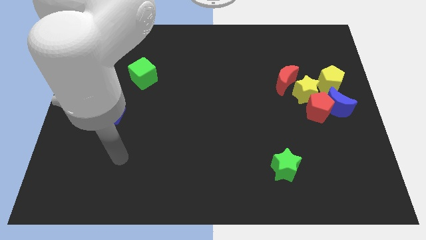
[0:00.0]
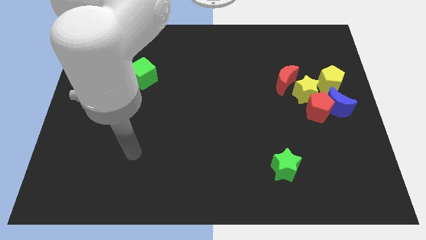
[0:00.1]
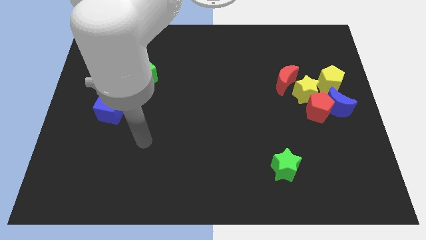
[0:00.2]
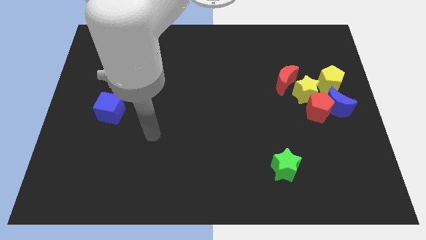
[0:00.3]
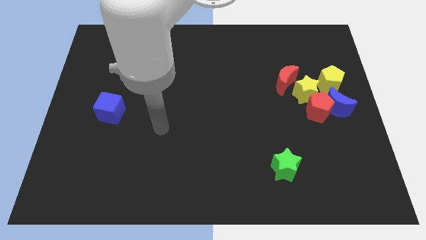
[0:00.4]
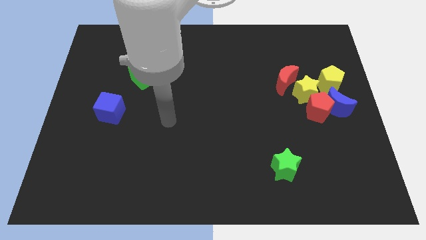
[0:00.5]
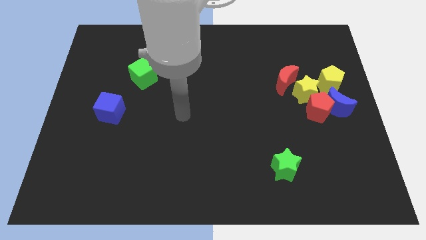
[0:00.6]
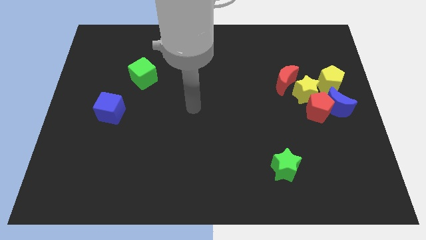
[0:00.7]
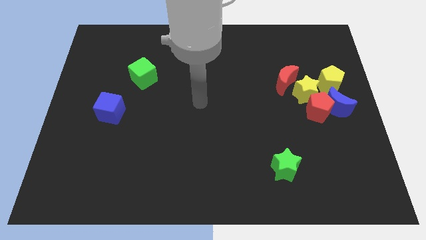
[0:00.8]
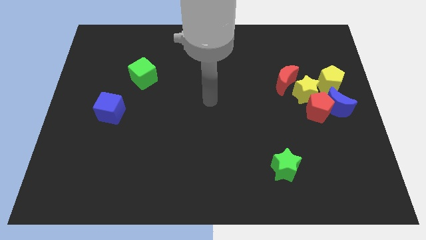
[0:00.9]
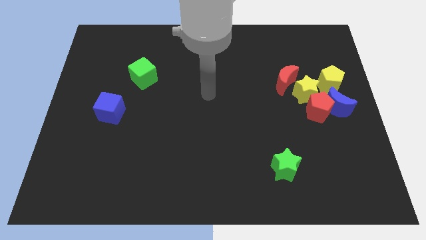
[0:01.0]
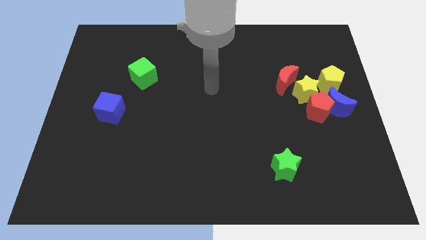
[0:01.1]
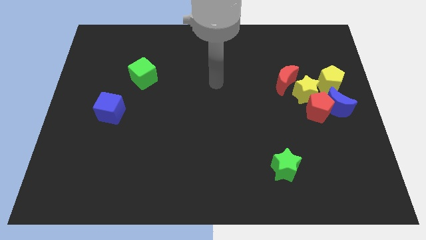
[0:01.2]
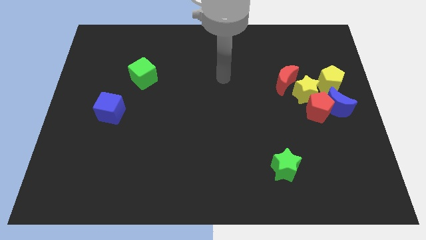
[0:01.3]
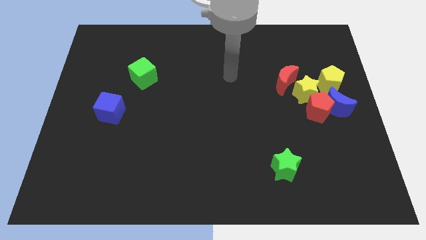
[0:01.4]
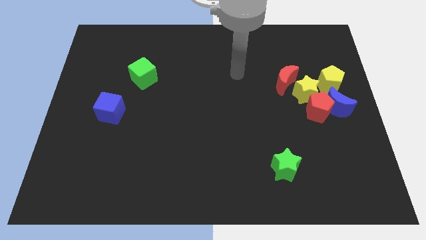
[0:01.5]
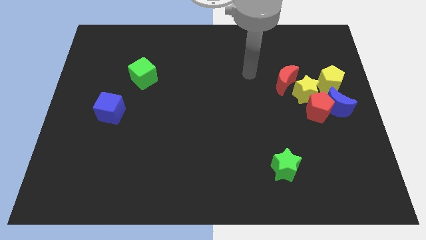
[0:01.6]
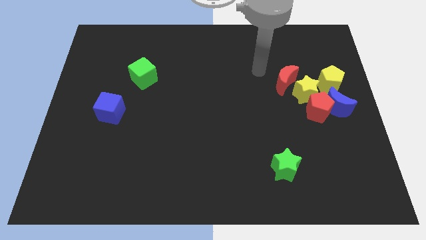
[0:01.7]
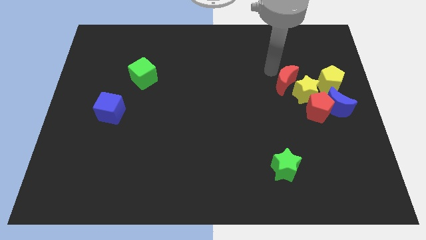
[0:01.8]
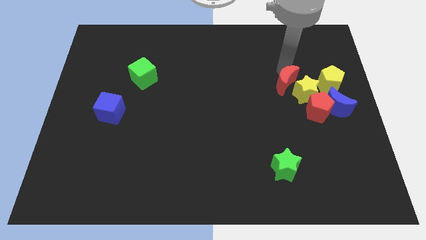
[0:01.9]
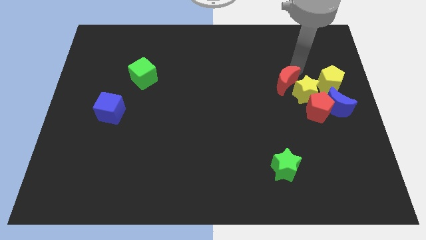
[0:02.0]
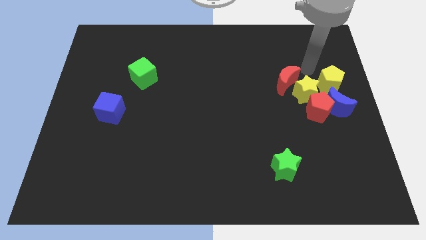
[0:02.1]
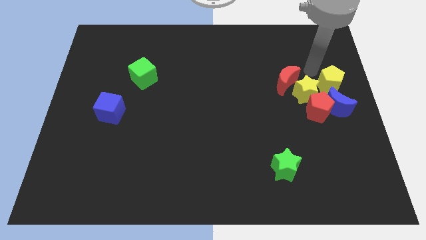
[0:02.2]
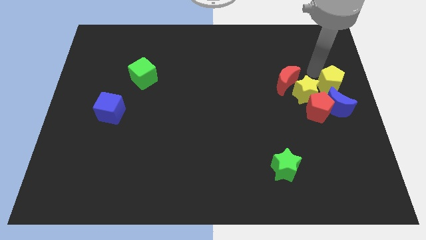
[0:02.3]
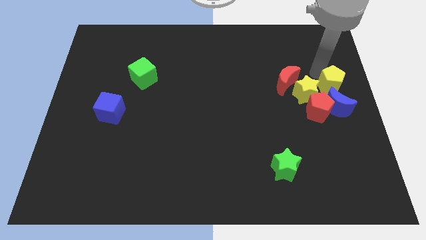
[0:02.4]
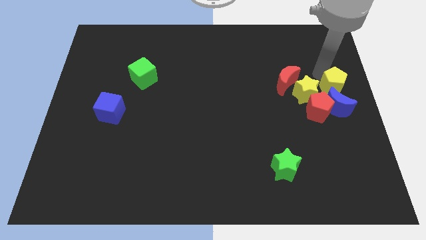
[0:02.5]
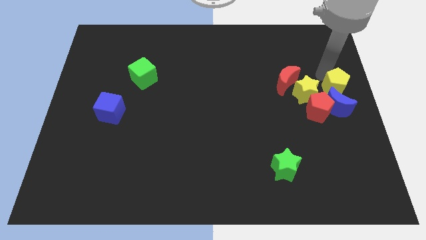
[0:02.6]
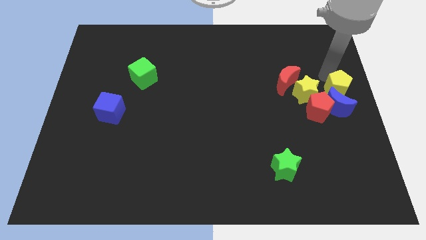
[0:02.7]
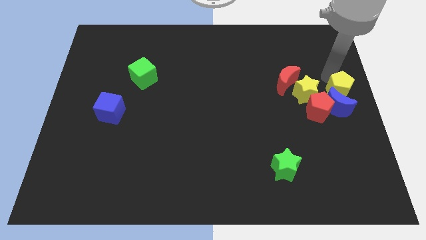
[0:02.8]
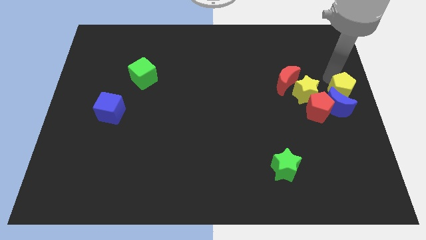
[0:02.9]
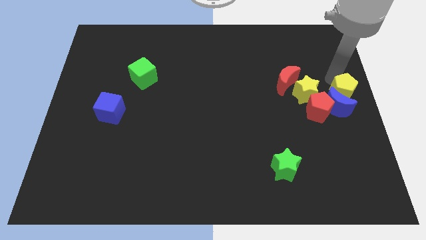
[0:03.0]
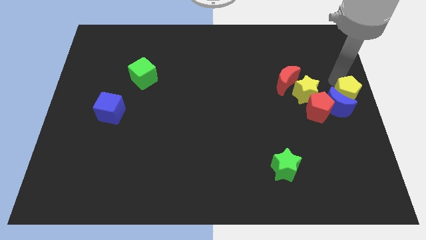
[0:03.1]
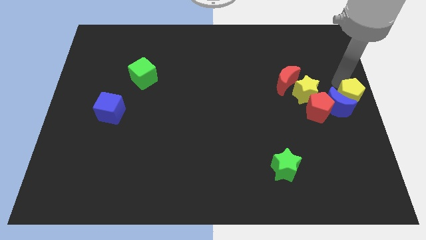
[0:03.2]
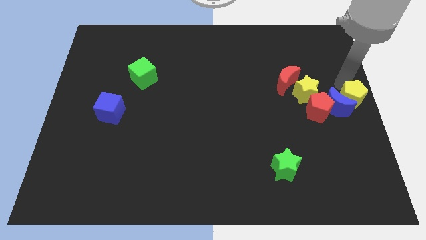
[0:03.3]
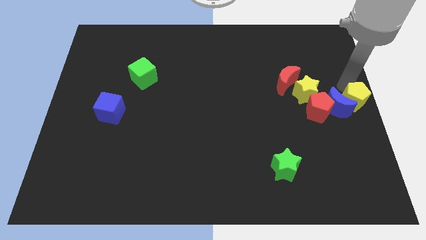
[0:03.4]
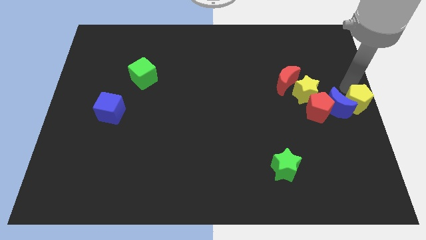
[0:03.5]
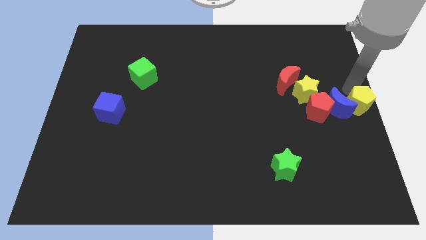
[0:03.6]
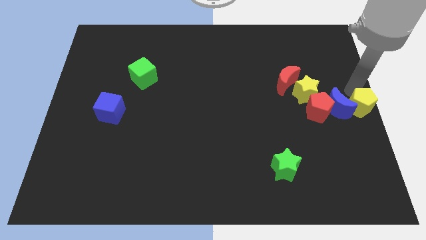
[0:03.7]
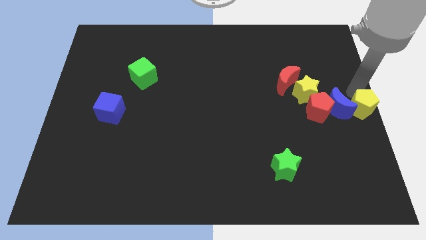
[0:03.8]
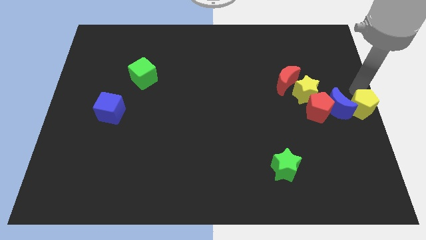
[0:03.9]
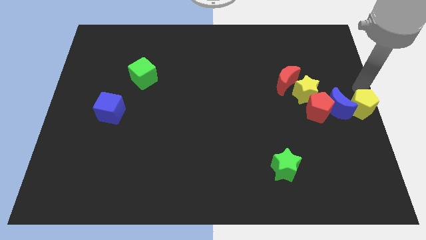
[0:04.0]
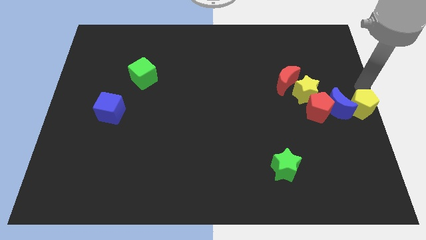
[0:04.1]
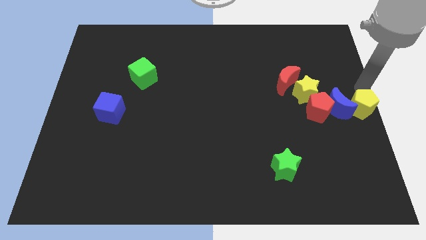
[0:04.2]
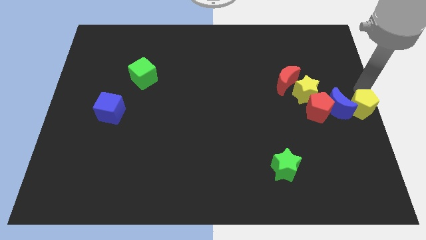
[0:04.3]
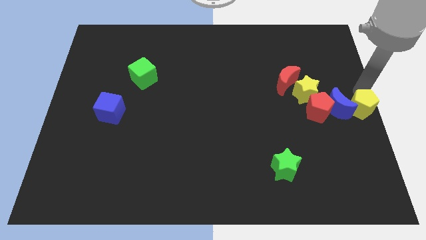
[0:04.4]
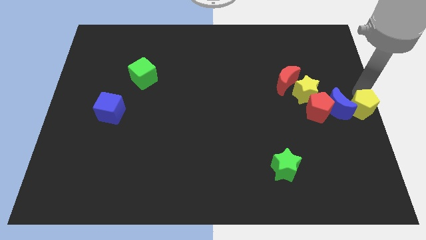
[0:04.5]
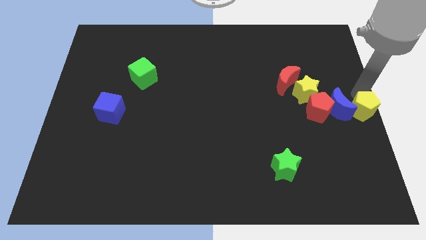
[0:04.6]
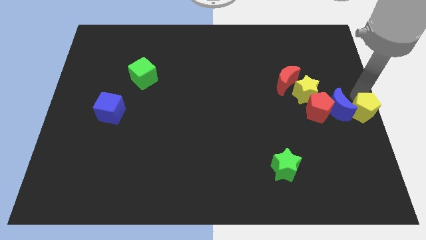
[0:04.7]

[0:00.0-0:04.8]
slide the yellow pentagon downwards a little bit

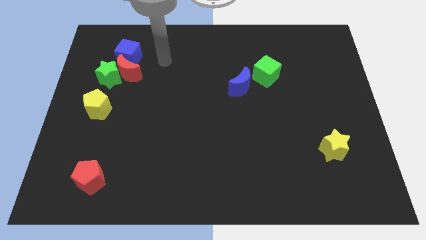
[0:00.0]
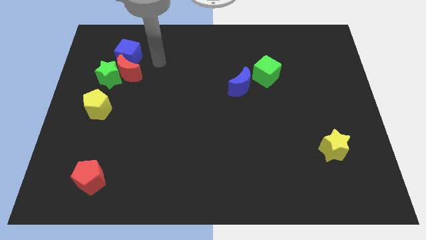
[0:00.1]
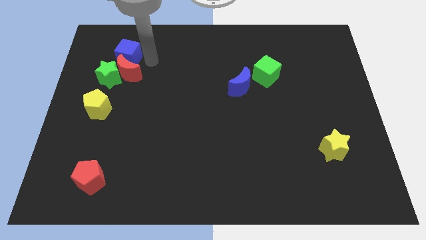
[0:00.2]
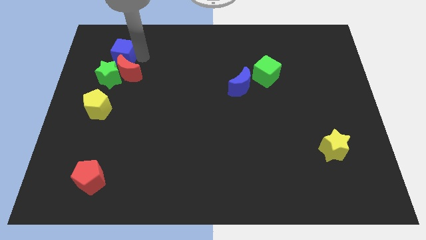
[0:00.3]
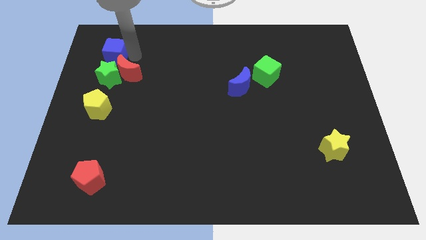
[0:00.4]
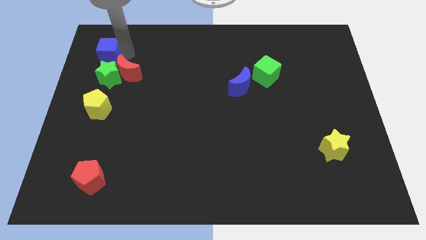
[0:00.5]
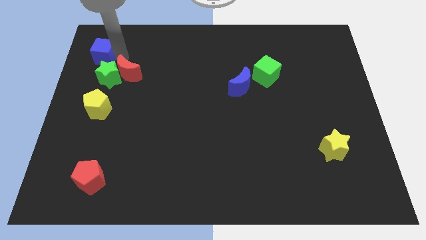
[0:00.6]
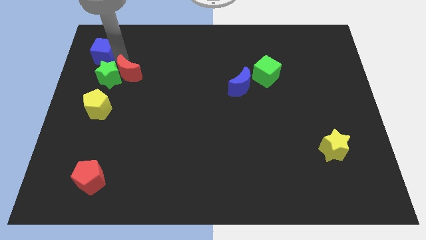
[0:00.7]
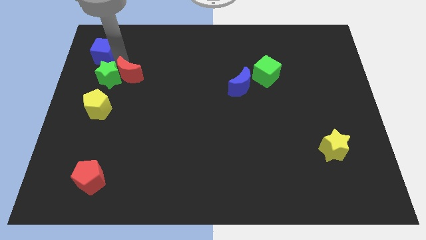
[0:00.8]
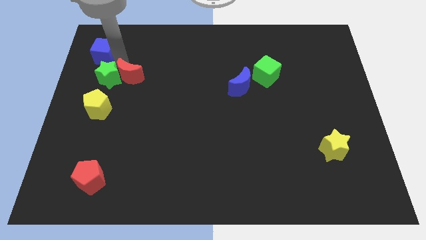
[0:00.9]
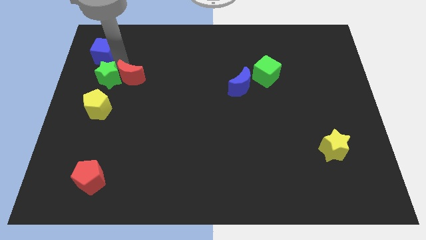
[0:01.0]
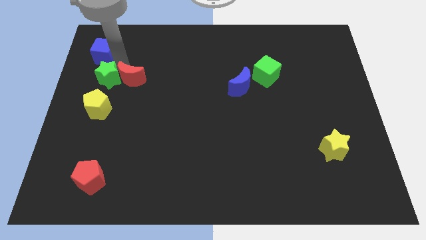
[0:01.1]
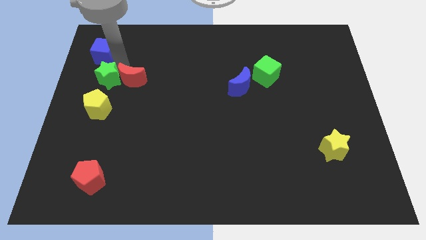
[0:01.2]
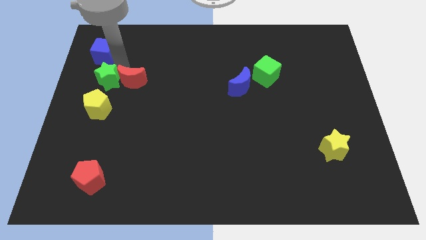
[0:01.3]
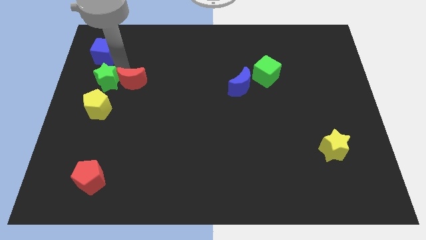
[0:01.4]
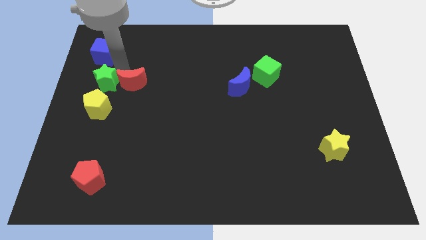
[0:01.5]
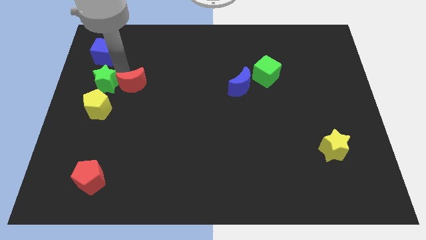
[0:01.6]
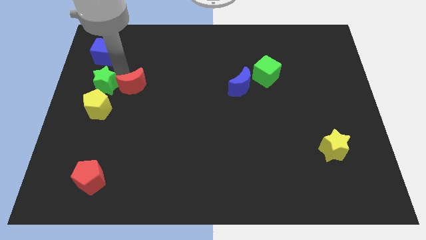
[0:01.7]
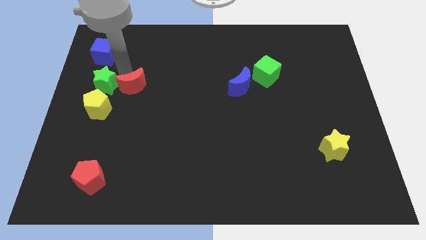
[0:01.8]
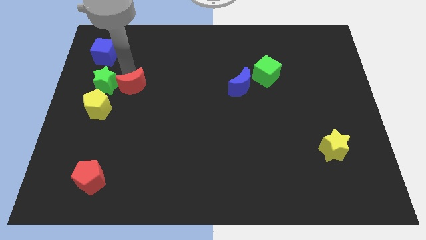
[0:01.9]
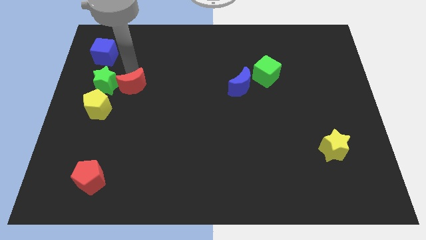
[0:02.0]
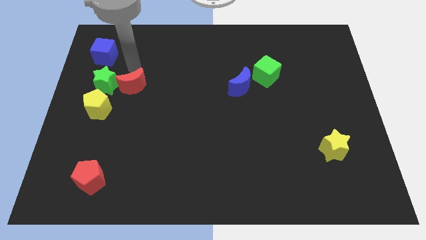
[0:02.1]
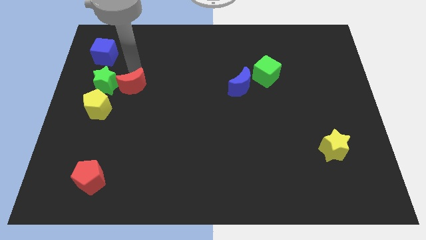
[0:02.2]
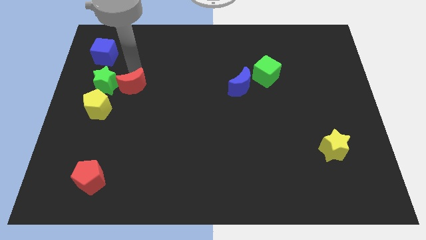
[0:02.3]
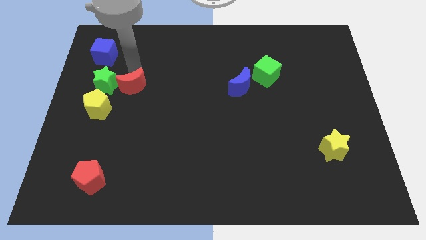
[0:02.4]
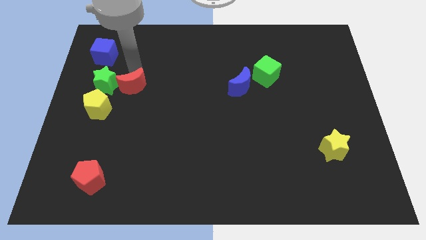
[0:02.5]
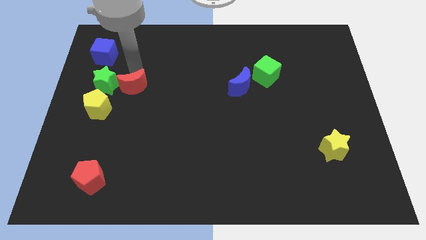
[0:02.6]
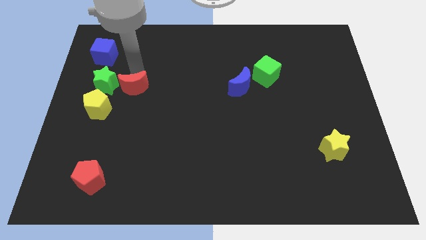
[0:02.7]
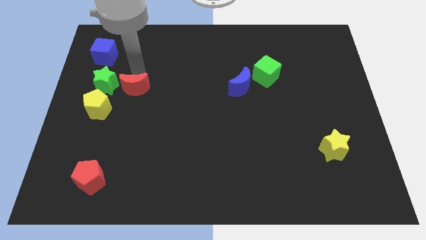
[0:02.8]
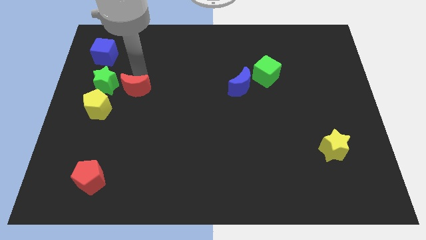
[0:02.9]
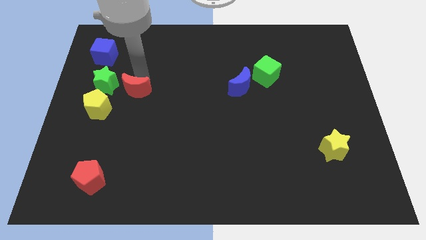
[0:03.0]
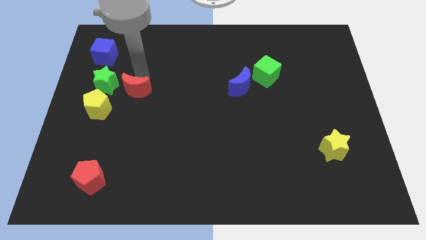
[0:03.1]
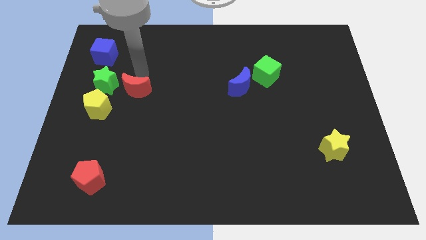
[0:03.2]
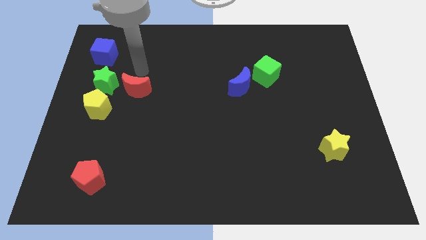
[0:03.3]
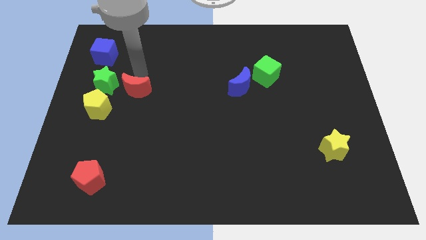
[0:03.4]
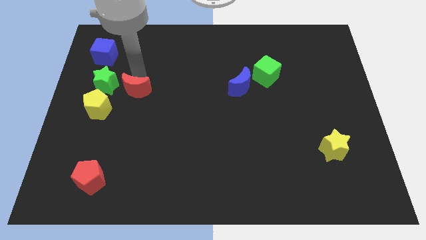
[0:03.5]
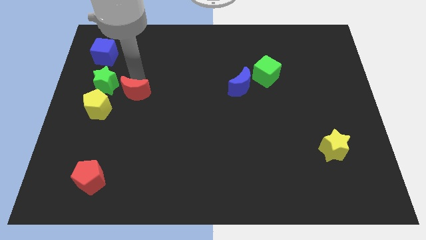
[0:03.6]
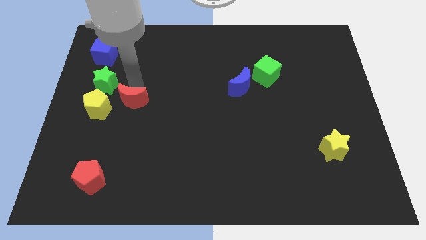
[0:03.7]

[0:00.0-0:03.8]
move the red moon slightly downwards

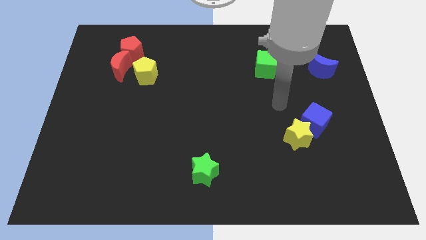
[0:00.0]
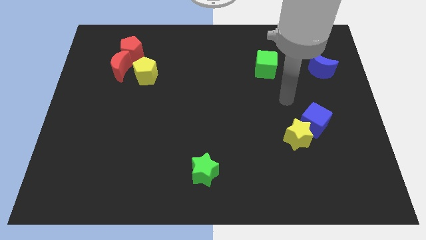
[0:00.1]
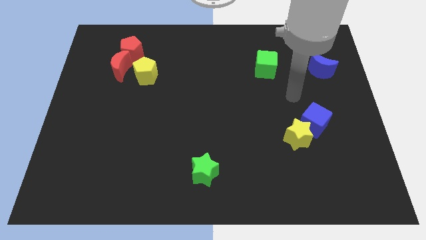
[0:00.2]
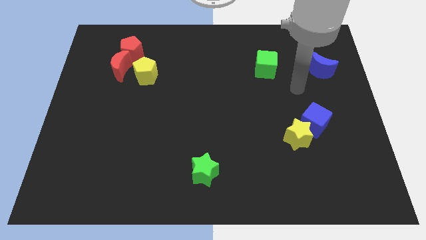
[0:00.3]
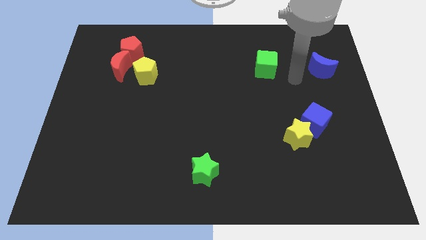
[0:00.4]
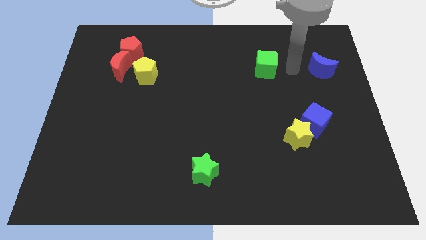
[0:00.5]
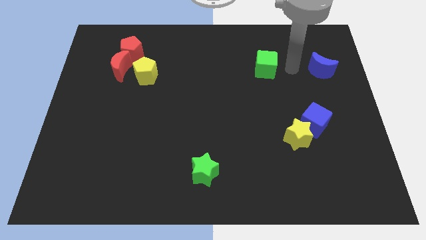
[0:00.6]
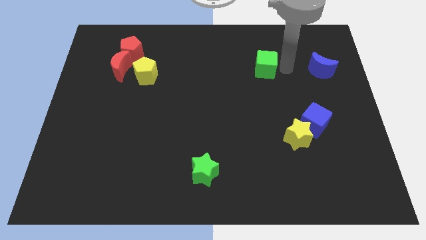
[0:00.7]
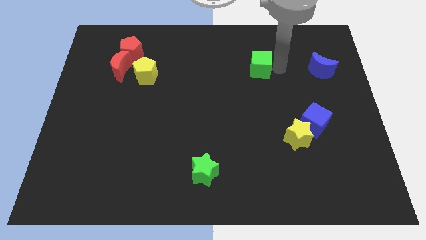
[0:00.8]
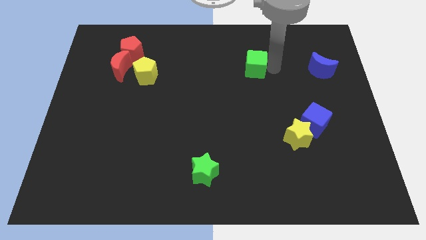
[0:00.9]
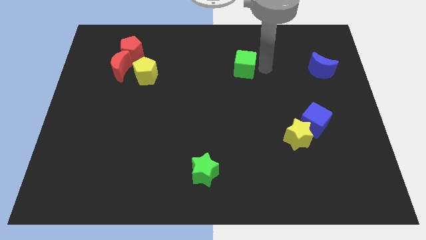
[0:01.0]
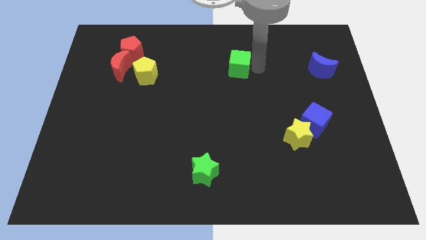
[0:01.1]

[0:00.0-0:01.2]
slightly move the green cube to the left
